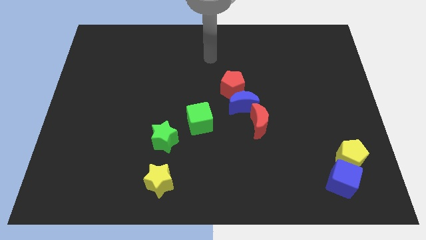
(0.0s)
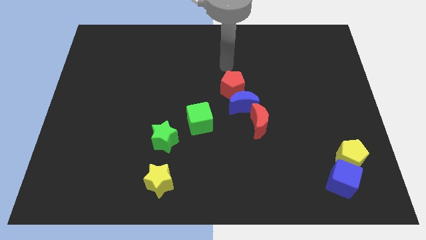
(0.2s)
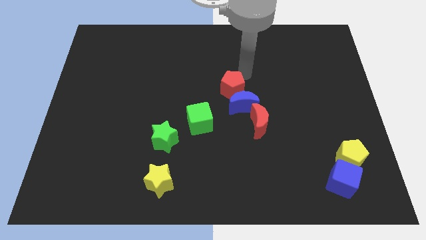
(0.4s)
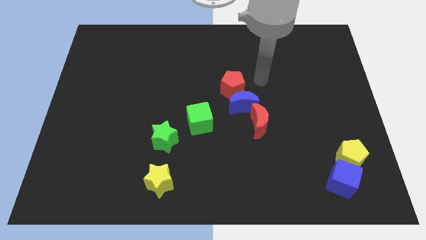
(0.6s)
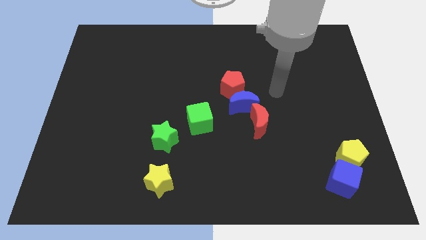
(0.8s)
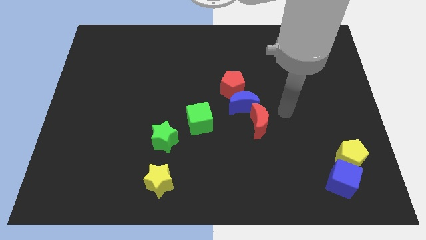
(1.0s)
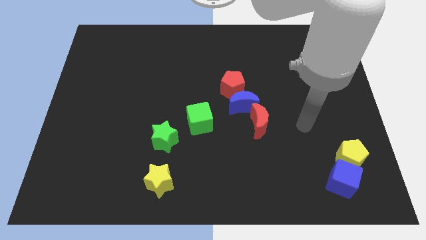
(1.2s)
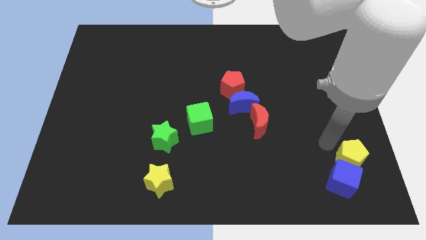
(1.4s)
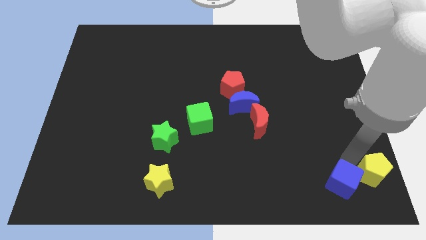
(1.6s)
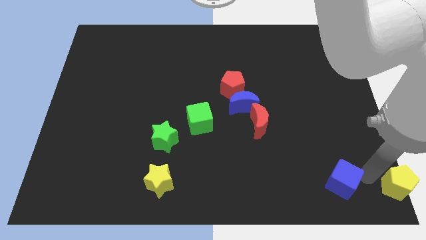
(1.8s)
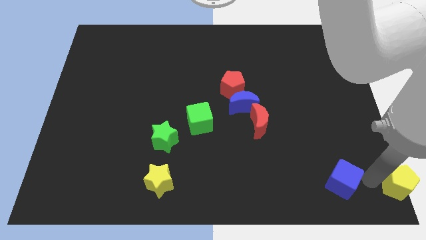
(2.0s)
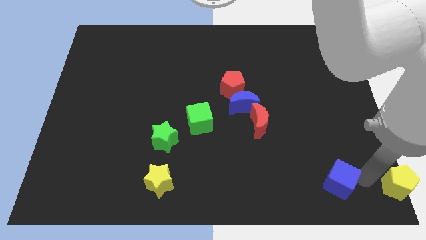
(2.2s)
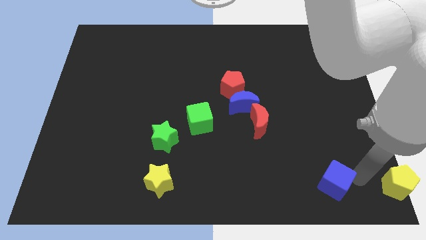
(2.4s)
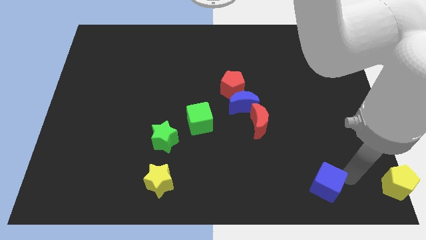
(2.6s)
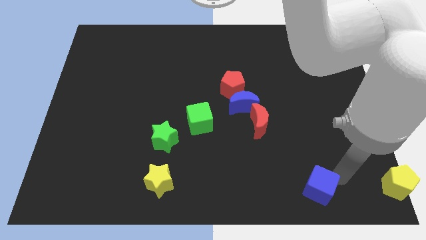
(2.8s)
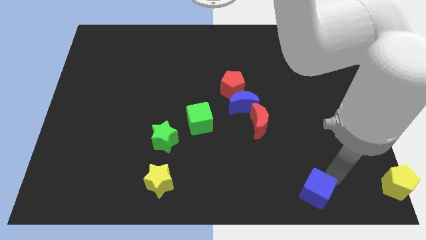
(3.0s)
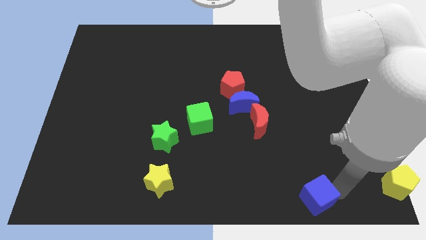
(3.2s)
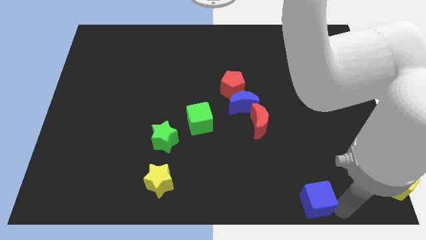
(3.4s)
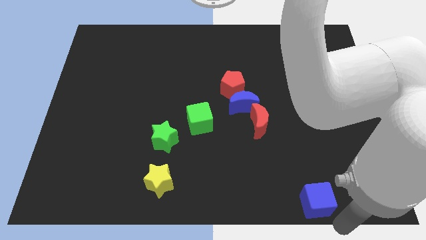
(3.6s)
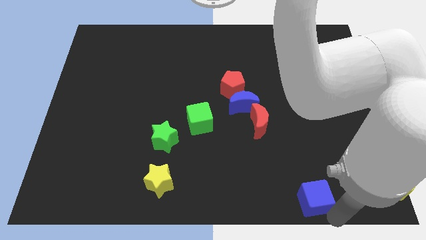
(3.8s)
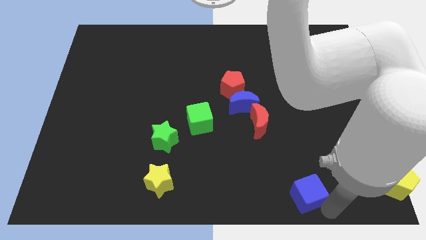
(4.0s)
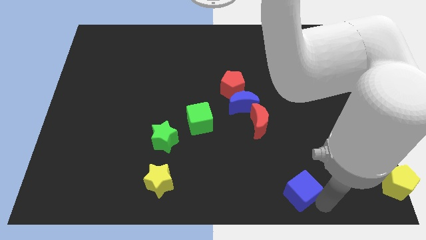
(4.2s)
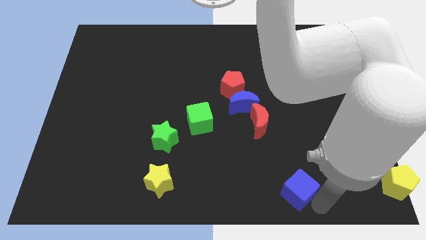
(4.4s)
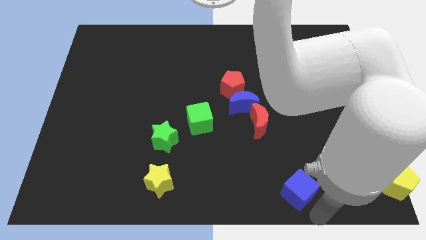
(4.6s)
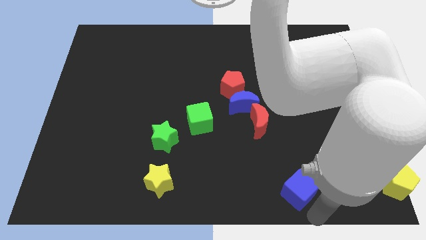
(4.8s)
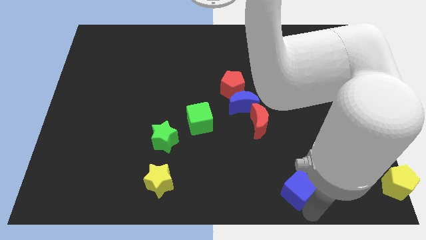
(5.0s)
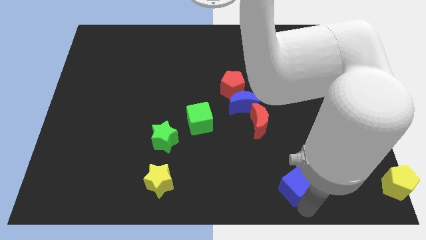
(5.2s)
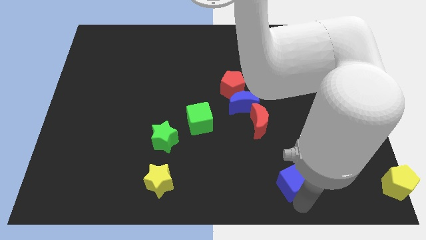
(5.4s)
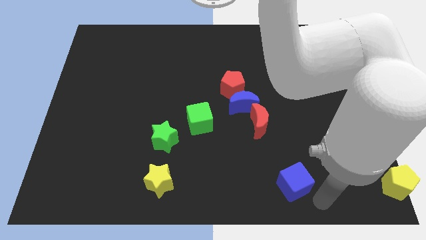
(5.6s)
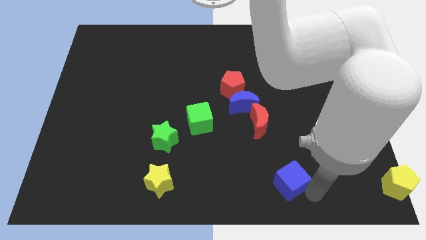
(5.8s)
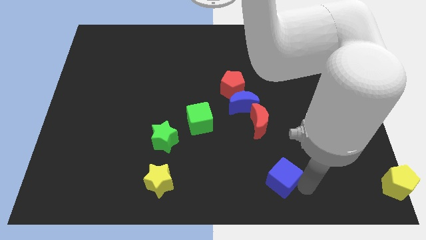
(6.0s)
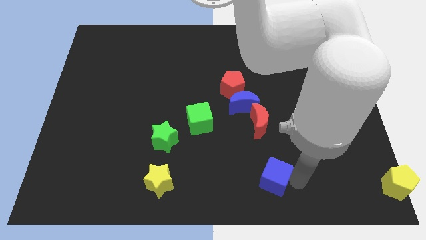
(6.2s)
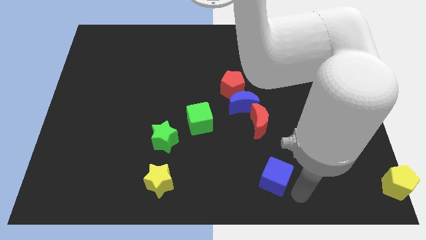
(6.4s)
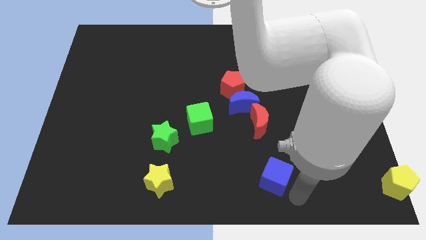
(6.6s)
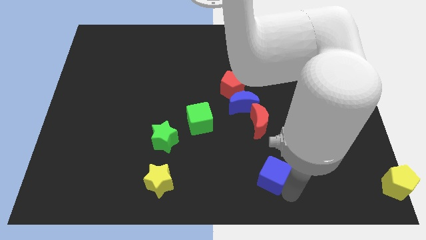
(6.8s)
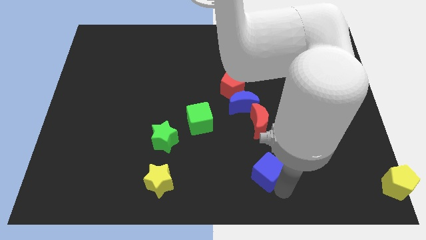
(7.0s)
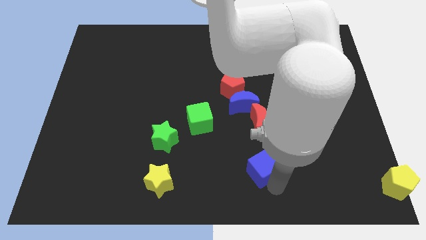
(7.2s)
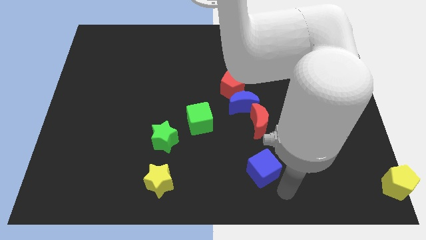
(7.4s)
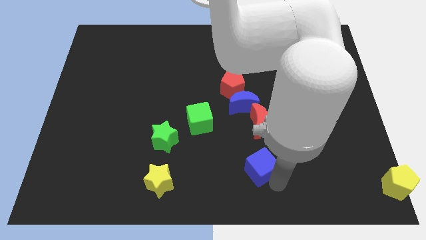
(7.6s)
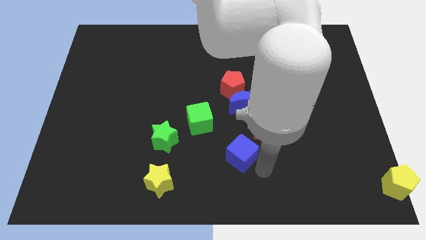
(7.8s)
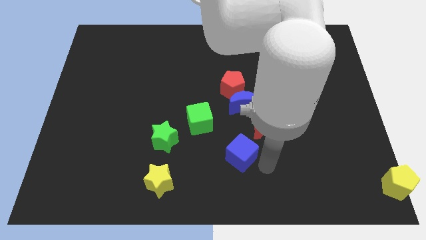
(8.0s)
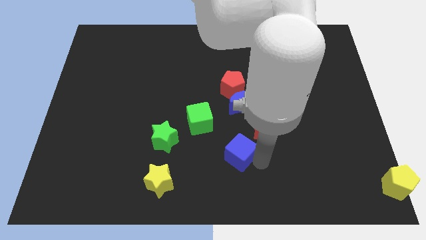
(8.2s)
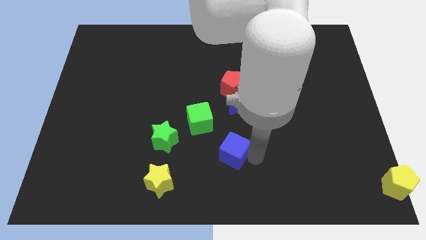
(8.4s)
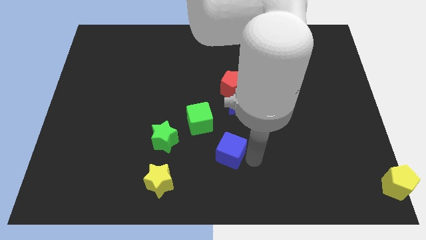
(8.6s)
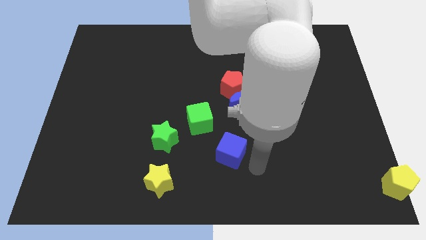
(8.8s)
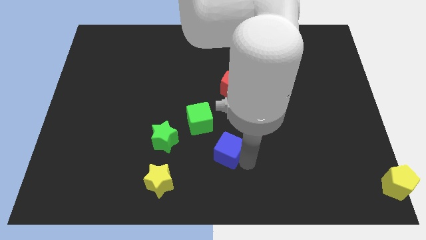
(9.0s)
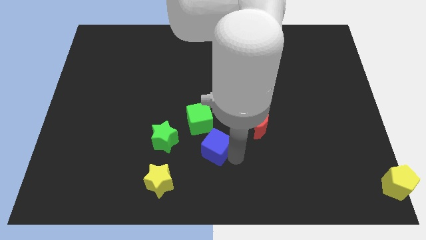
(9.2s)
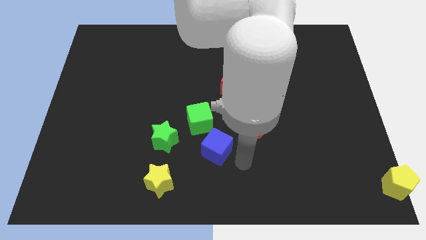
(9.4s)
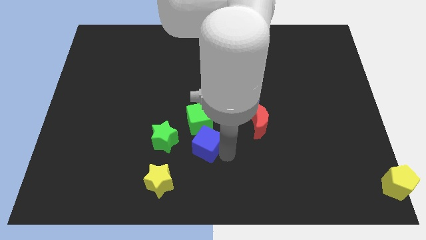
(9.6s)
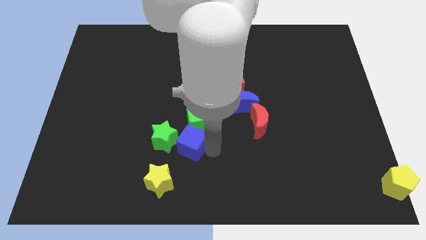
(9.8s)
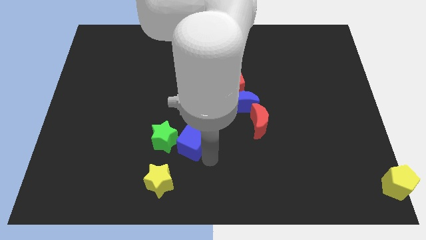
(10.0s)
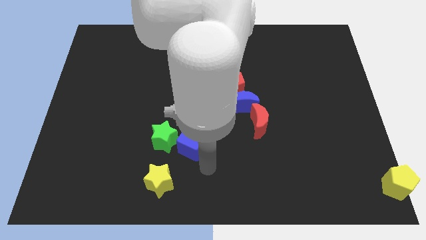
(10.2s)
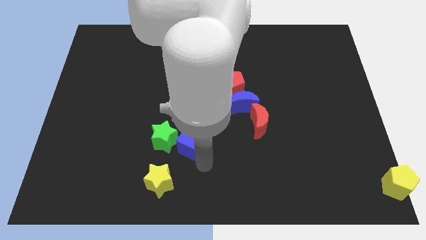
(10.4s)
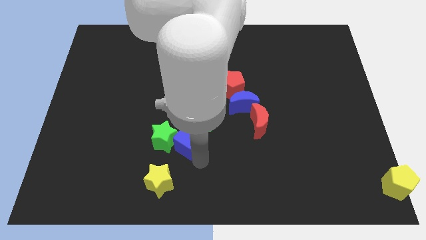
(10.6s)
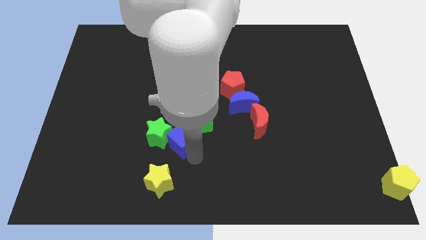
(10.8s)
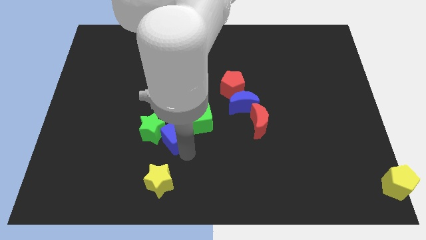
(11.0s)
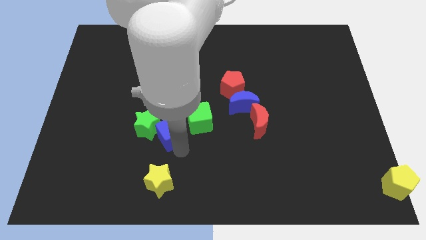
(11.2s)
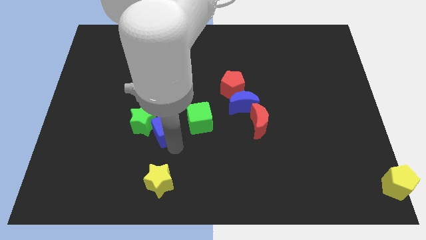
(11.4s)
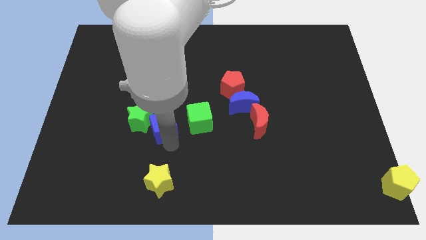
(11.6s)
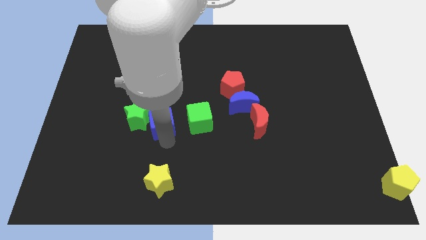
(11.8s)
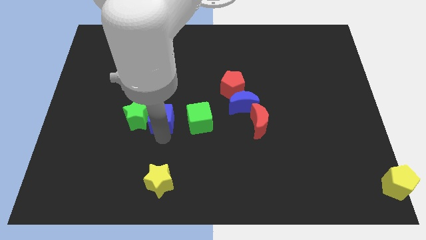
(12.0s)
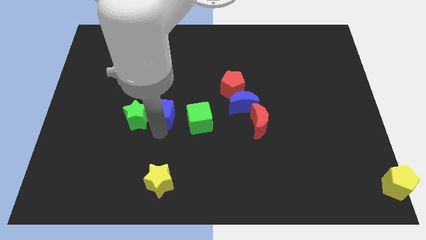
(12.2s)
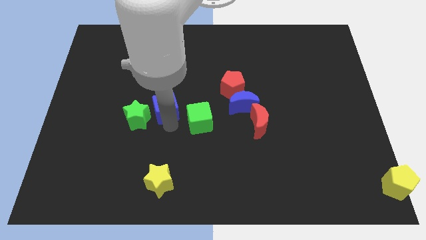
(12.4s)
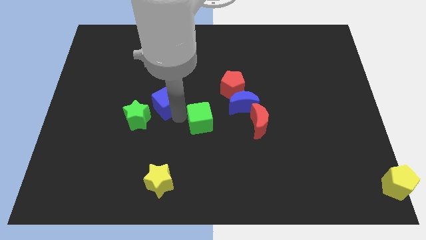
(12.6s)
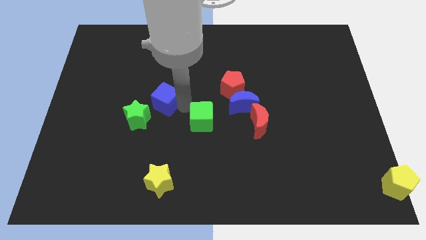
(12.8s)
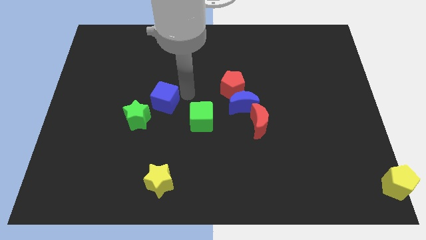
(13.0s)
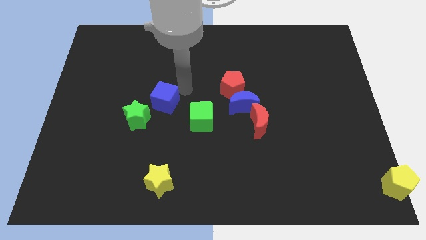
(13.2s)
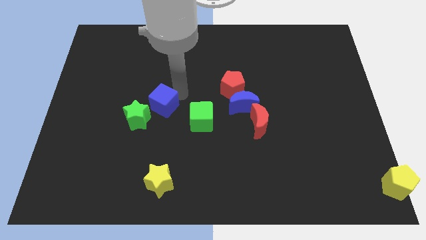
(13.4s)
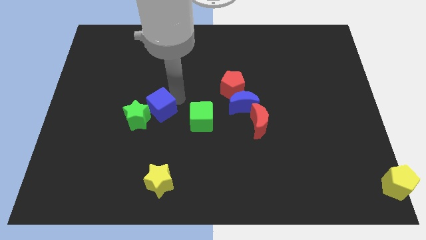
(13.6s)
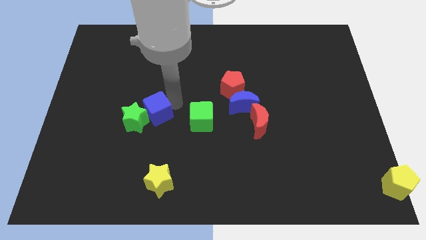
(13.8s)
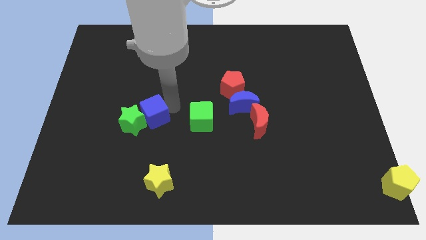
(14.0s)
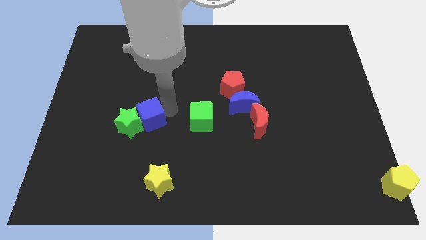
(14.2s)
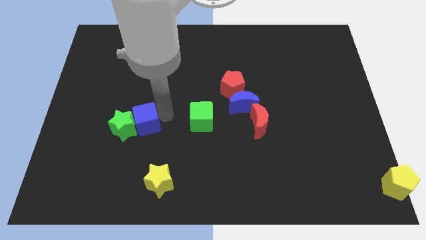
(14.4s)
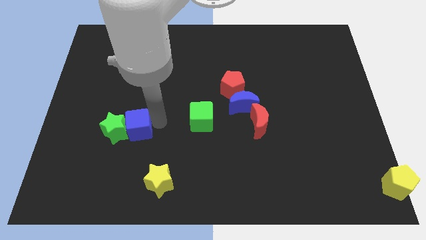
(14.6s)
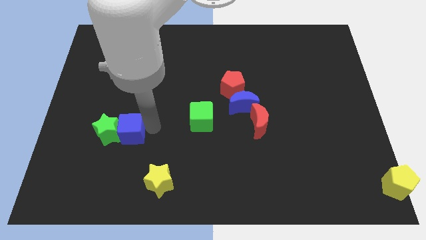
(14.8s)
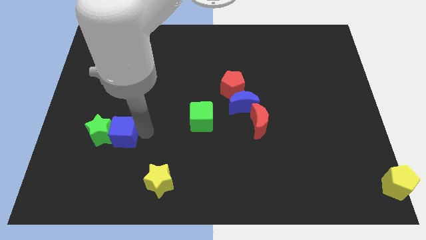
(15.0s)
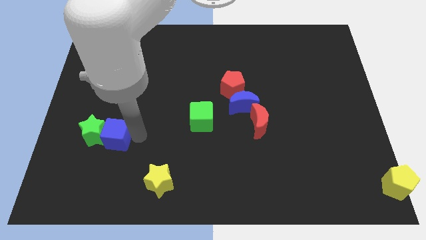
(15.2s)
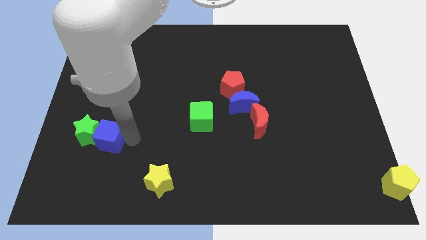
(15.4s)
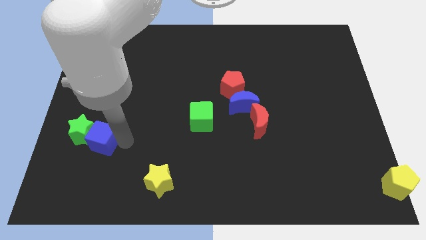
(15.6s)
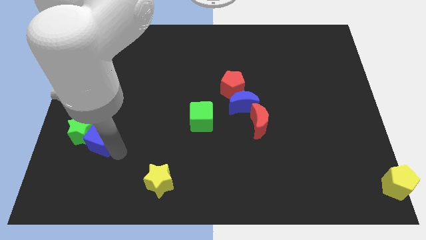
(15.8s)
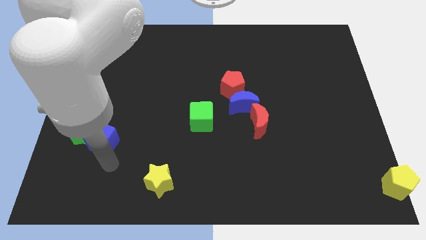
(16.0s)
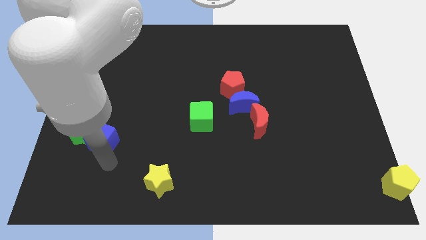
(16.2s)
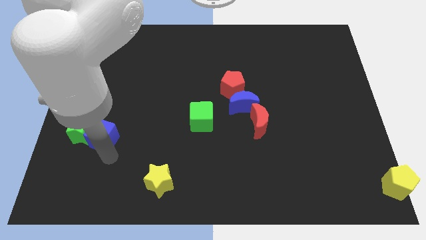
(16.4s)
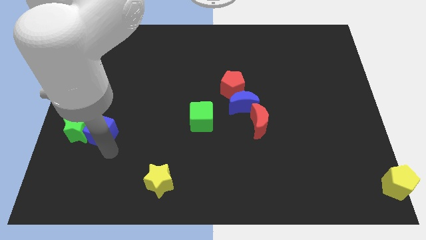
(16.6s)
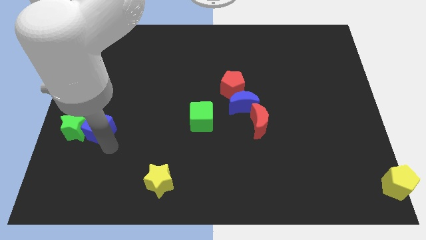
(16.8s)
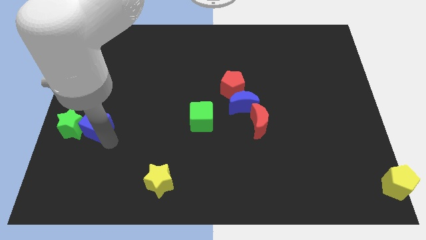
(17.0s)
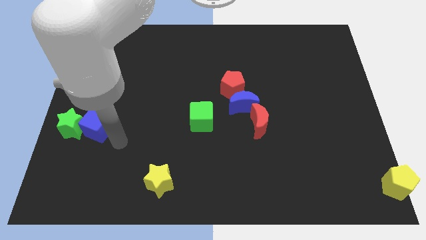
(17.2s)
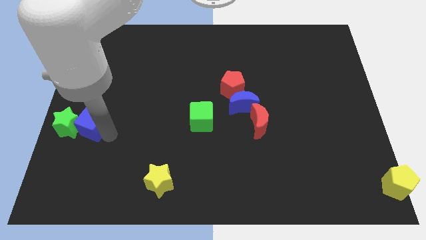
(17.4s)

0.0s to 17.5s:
slide the blue cube to the left side of the board
